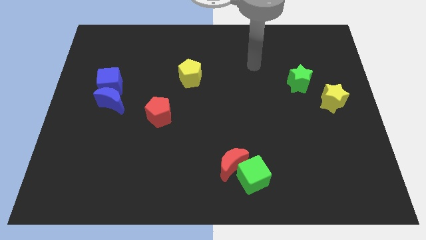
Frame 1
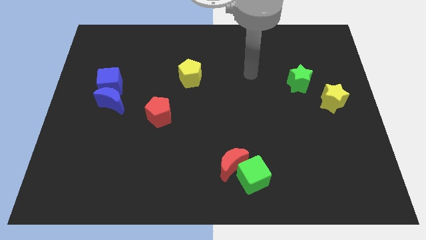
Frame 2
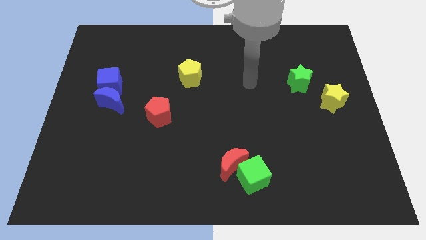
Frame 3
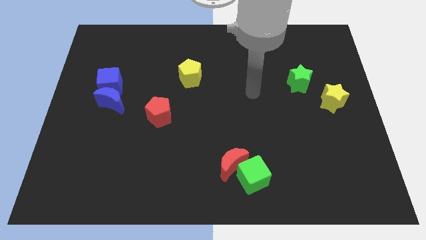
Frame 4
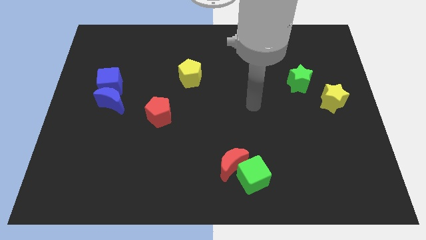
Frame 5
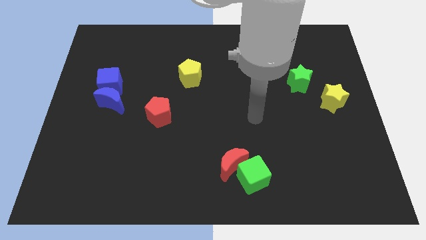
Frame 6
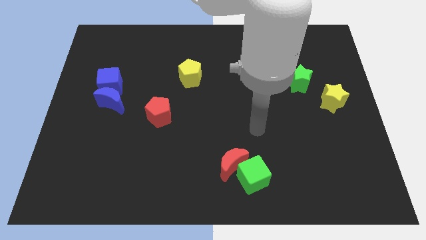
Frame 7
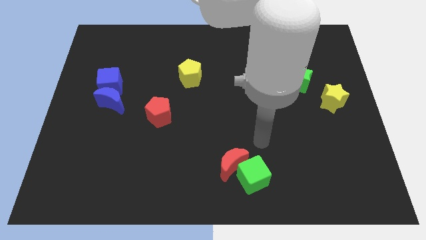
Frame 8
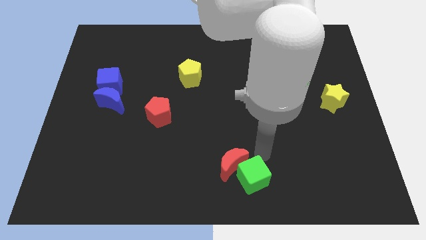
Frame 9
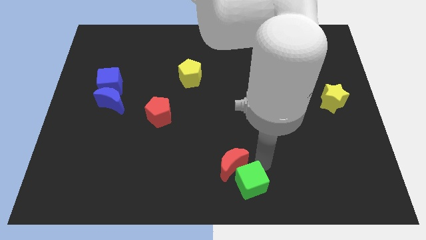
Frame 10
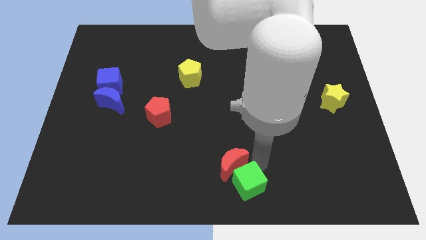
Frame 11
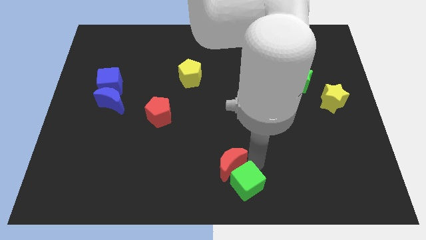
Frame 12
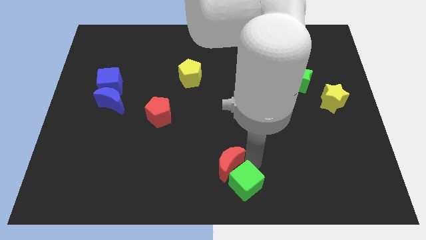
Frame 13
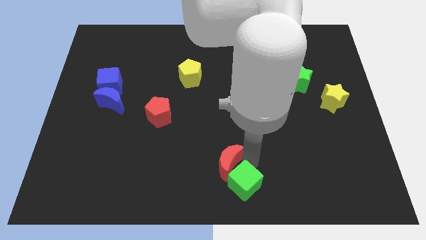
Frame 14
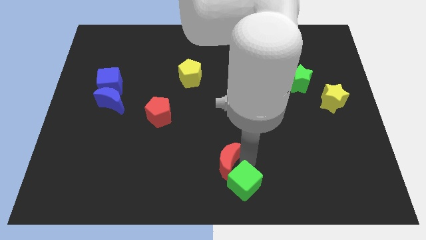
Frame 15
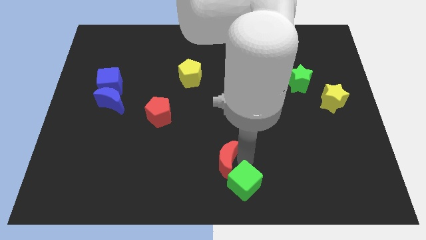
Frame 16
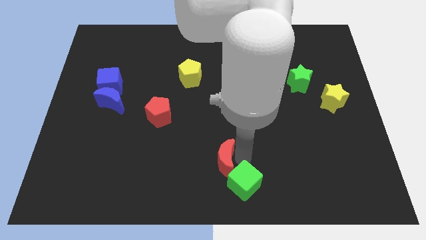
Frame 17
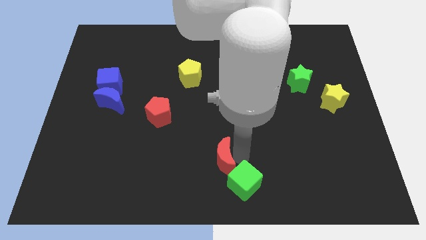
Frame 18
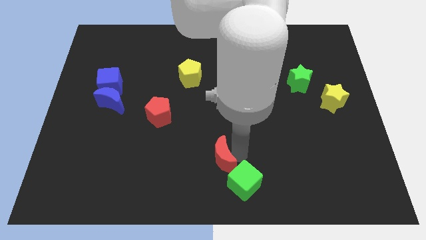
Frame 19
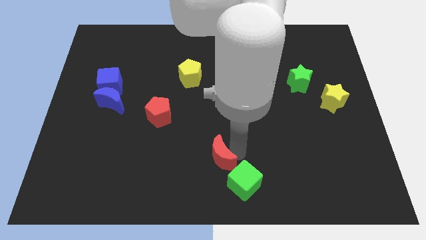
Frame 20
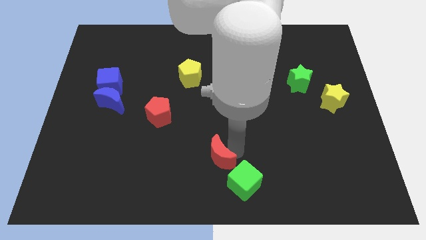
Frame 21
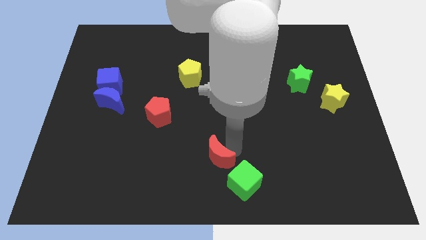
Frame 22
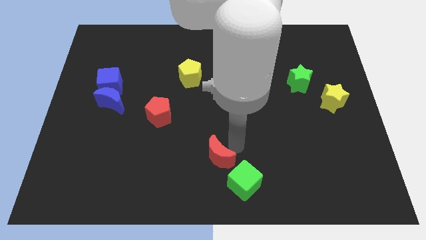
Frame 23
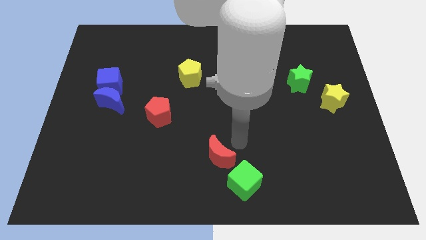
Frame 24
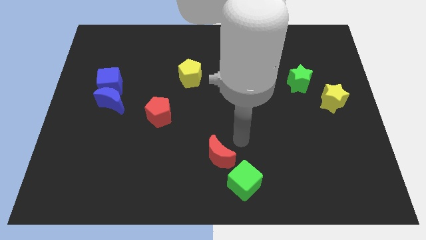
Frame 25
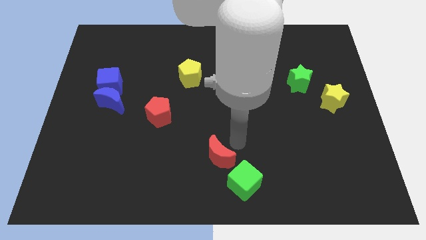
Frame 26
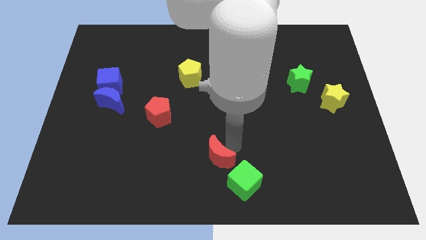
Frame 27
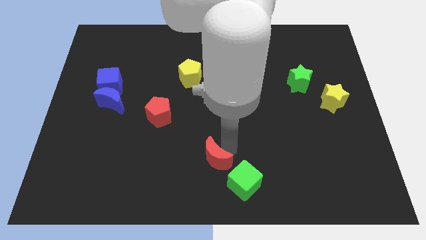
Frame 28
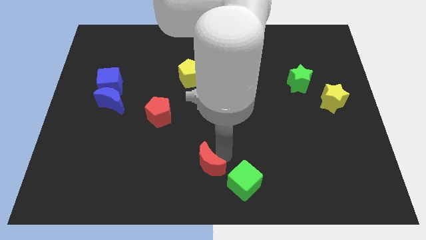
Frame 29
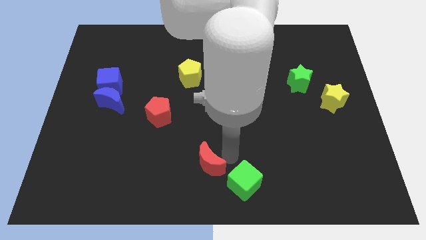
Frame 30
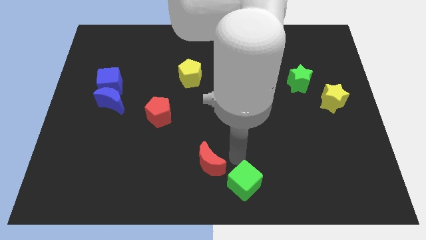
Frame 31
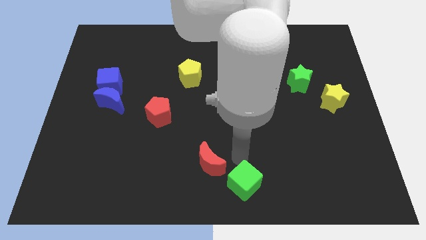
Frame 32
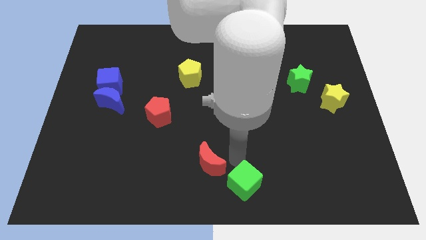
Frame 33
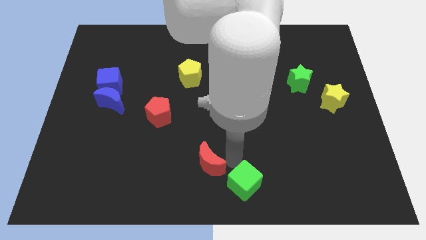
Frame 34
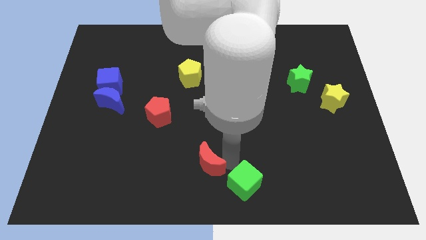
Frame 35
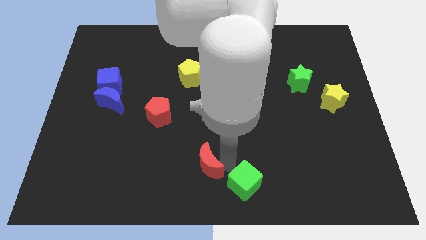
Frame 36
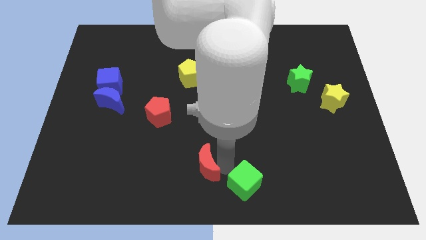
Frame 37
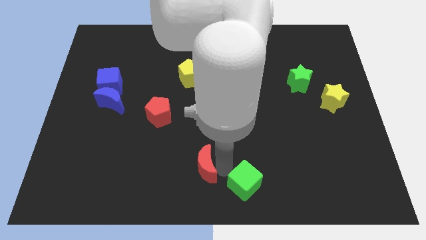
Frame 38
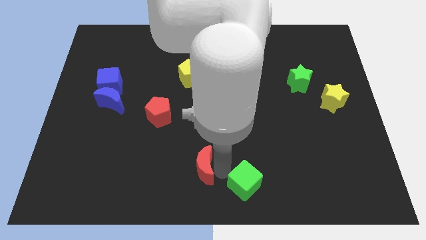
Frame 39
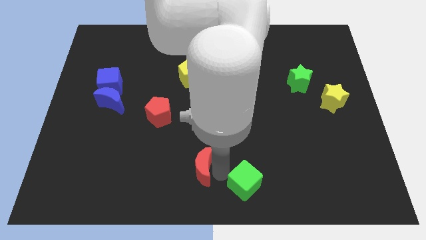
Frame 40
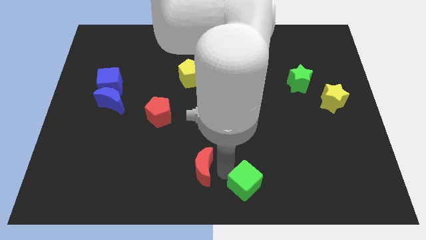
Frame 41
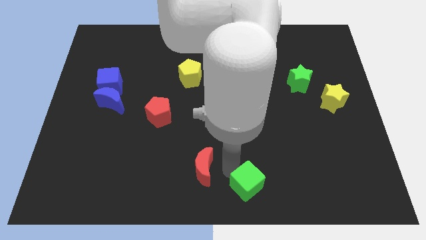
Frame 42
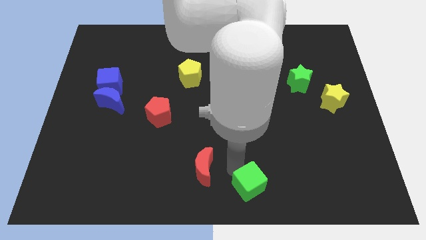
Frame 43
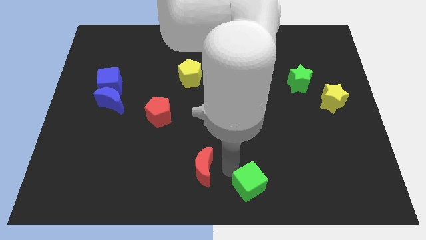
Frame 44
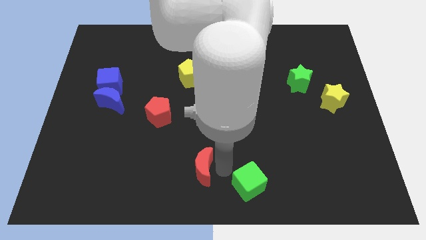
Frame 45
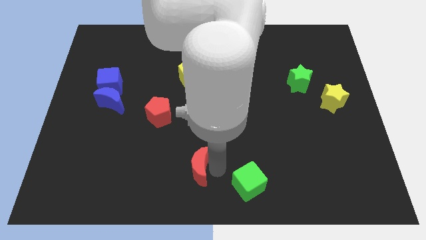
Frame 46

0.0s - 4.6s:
move the red moon slightly to the left

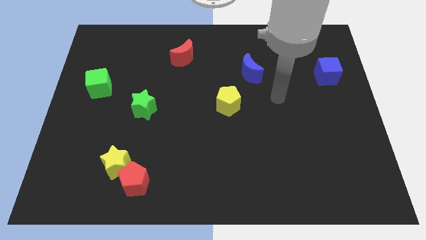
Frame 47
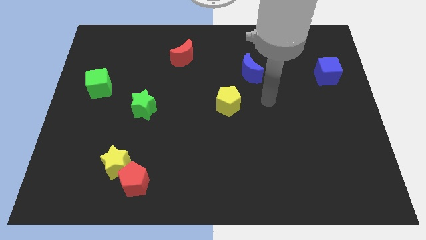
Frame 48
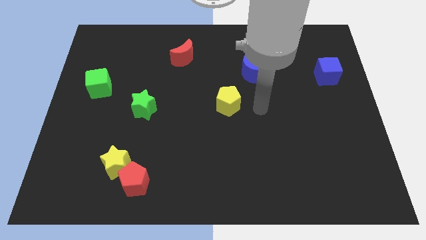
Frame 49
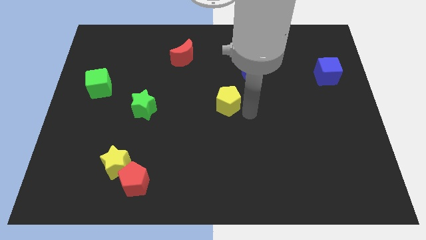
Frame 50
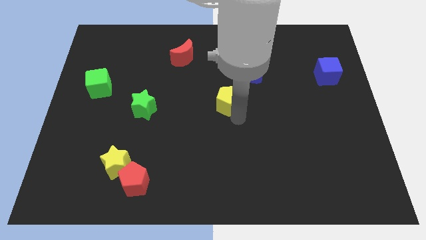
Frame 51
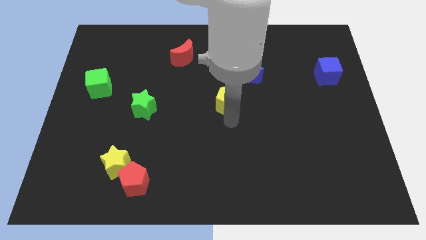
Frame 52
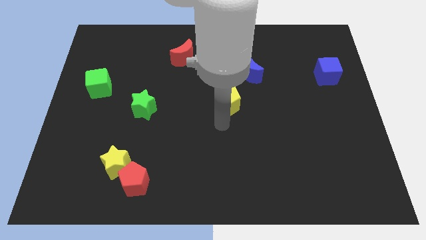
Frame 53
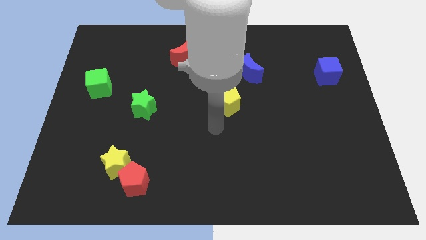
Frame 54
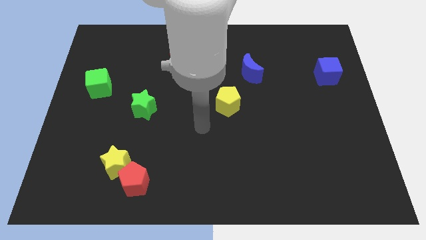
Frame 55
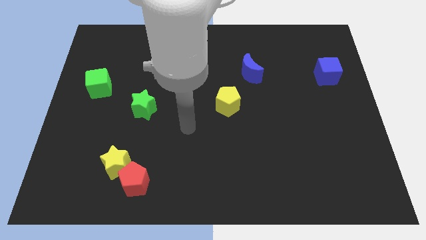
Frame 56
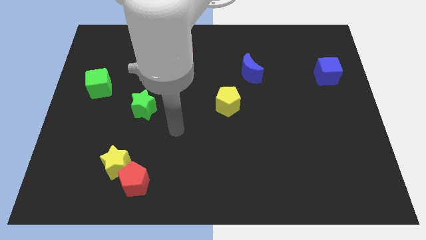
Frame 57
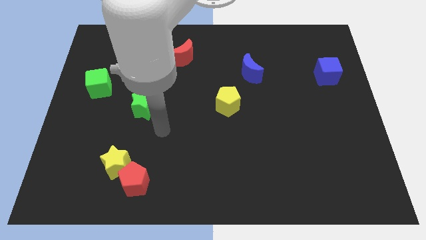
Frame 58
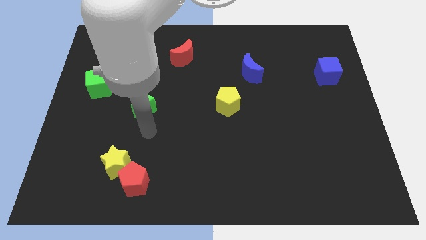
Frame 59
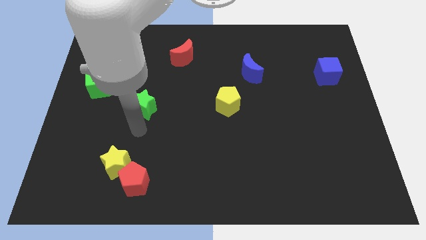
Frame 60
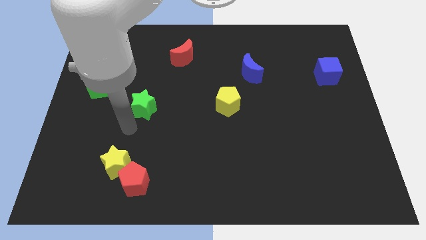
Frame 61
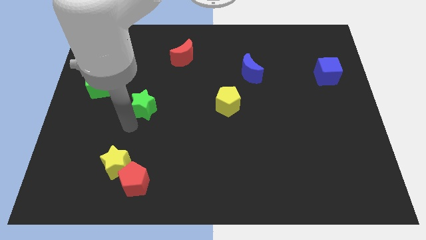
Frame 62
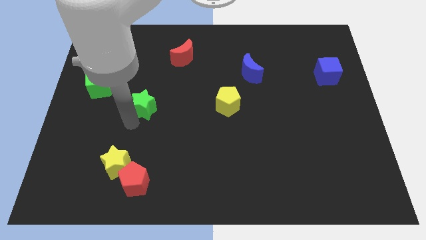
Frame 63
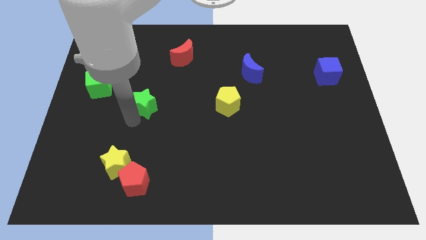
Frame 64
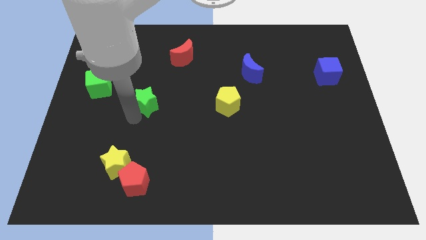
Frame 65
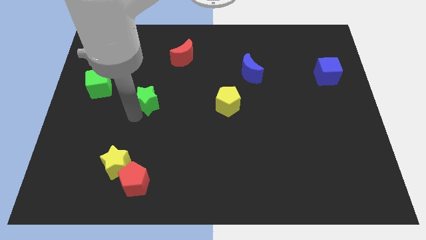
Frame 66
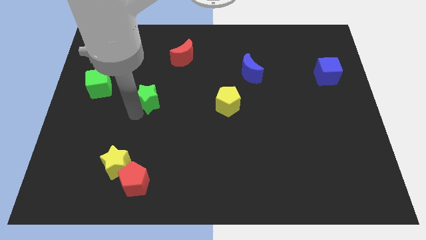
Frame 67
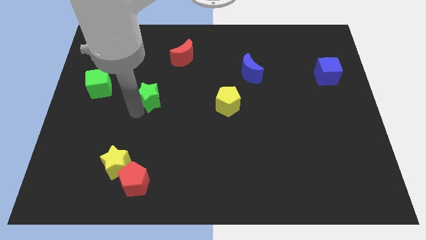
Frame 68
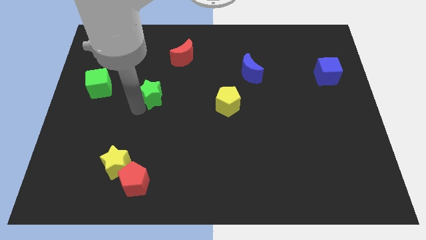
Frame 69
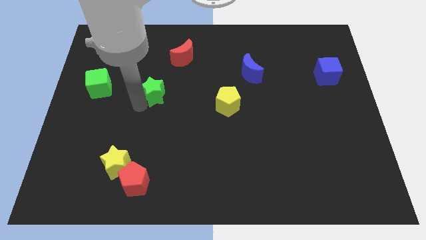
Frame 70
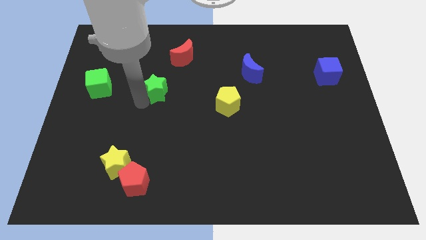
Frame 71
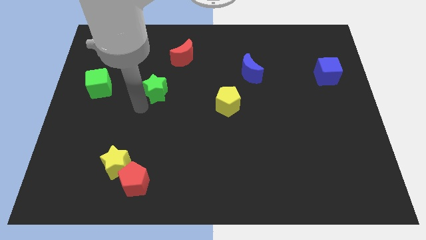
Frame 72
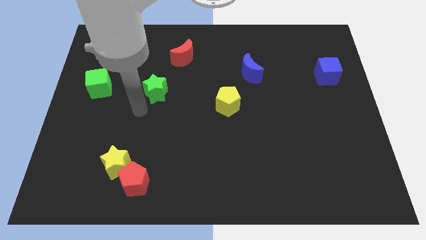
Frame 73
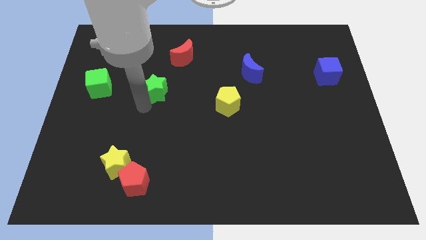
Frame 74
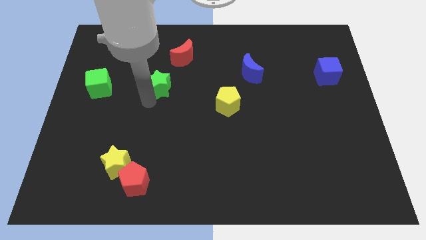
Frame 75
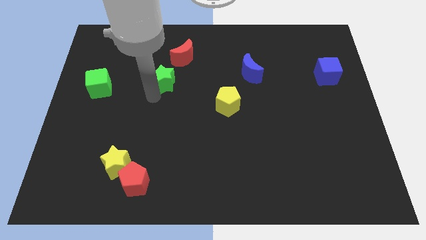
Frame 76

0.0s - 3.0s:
slide the green star up and then to the right a little

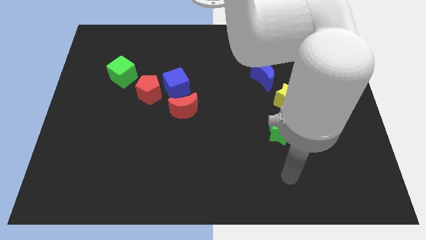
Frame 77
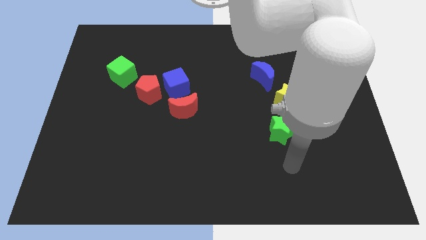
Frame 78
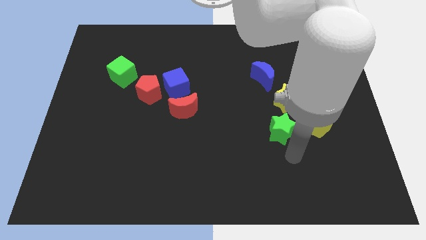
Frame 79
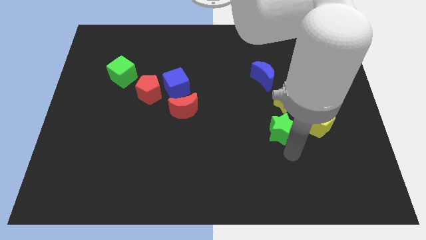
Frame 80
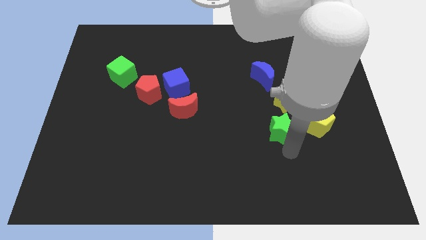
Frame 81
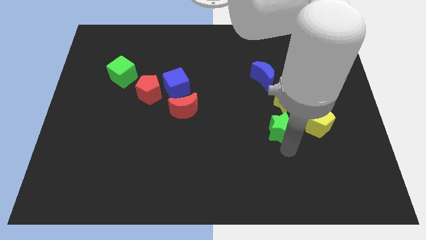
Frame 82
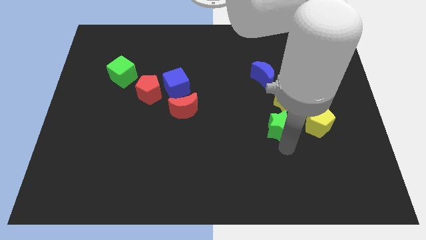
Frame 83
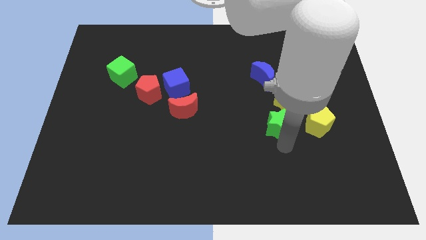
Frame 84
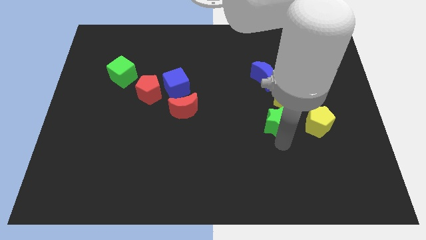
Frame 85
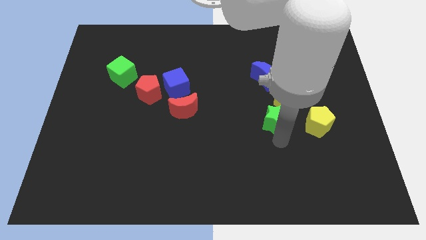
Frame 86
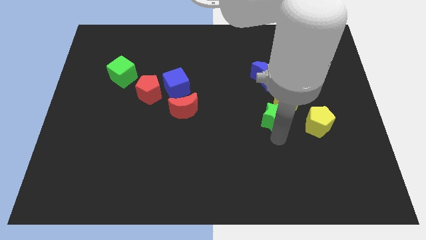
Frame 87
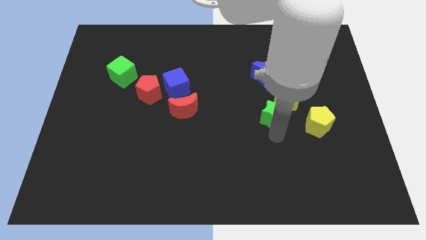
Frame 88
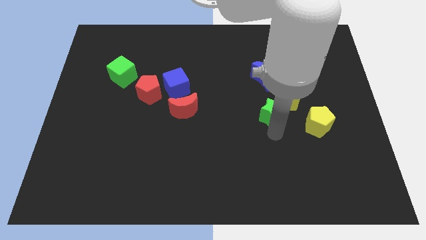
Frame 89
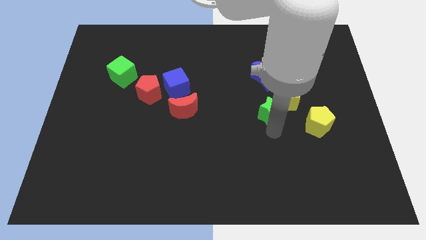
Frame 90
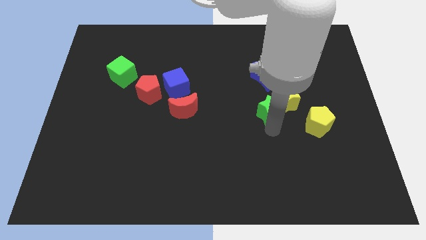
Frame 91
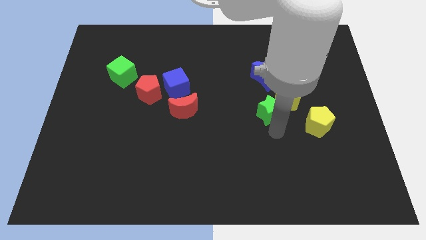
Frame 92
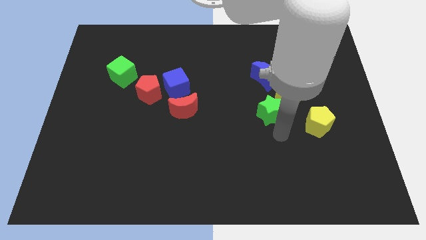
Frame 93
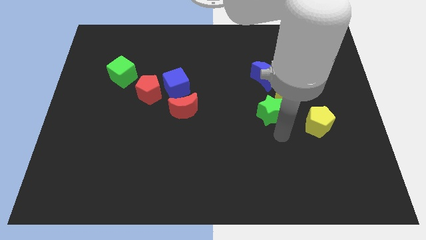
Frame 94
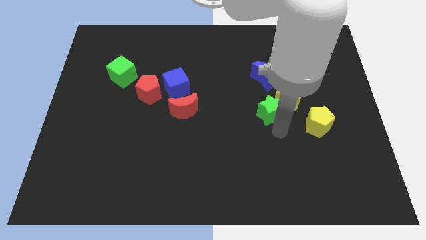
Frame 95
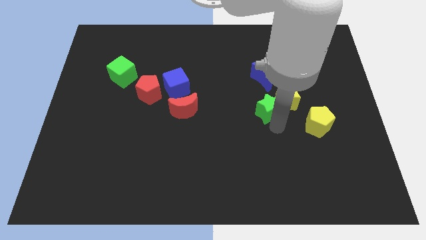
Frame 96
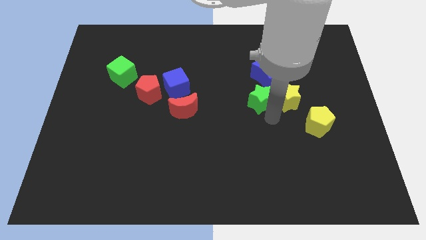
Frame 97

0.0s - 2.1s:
slightly slide the green star up
